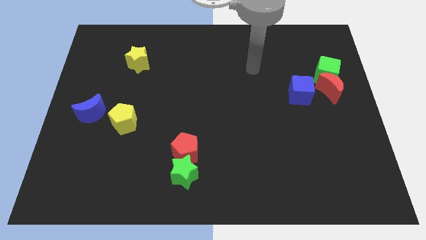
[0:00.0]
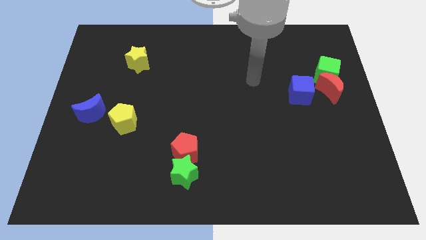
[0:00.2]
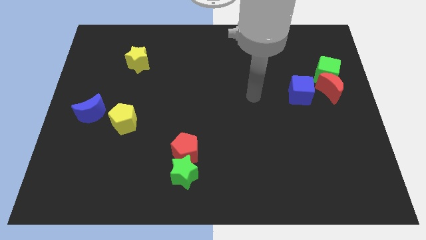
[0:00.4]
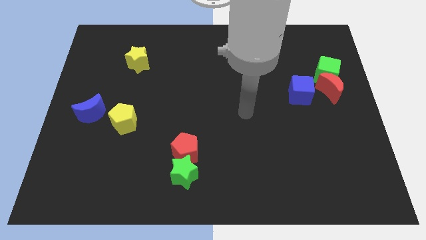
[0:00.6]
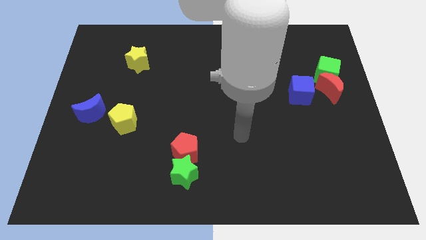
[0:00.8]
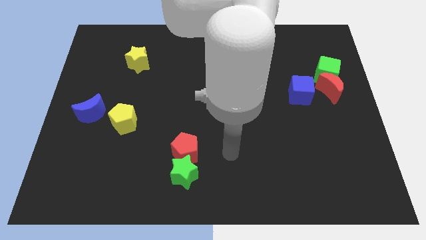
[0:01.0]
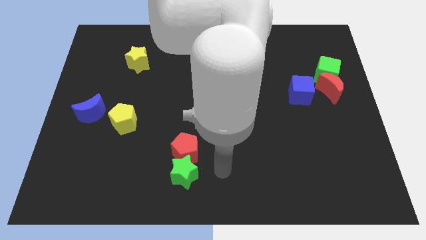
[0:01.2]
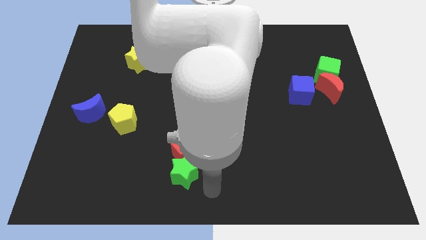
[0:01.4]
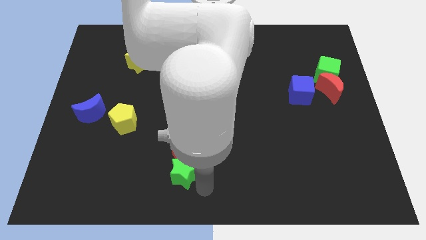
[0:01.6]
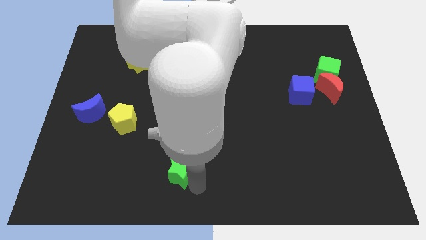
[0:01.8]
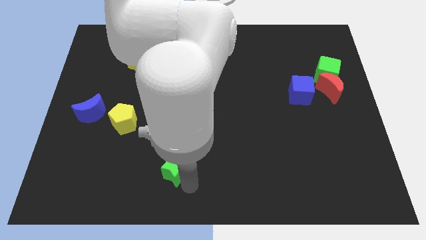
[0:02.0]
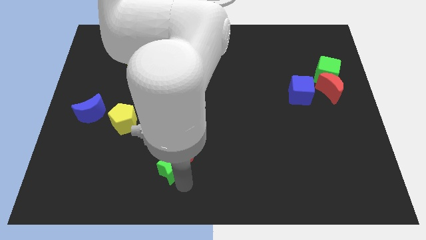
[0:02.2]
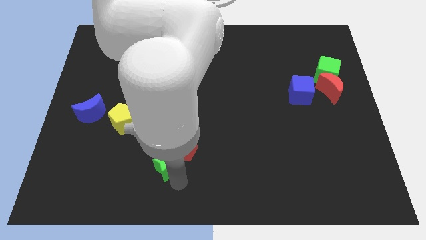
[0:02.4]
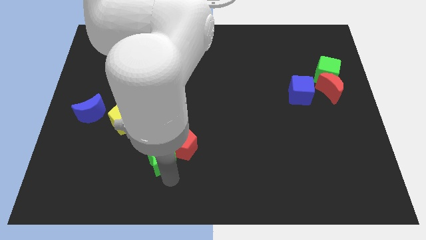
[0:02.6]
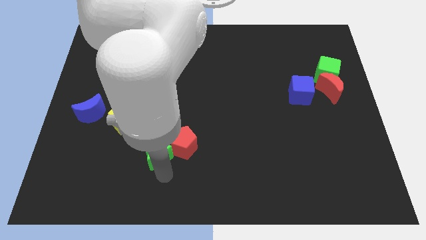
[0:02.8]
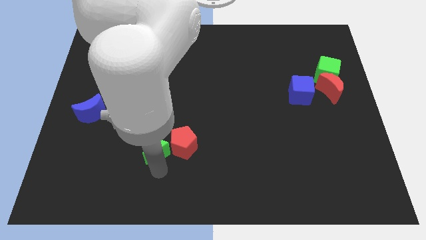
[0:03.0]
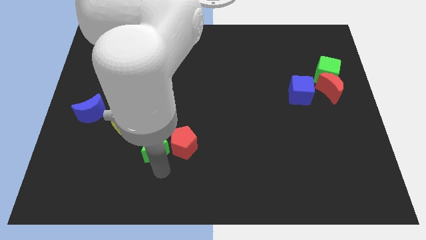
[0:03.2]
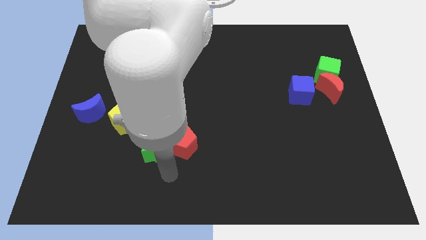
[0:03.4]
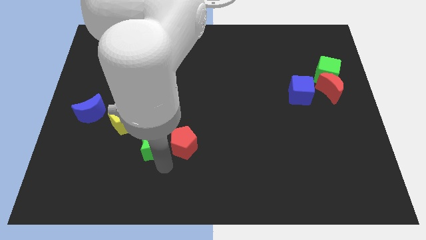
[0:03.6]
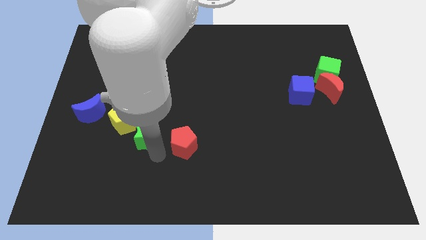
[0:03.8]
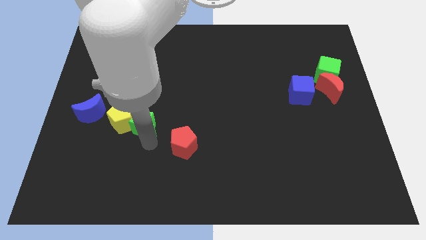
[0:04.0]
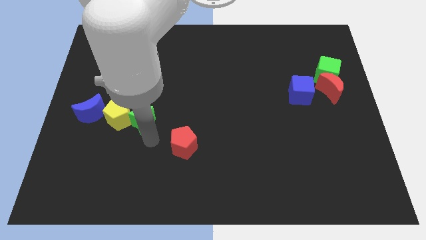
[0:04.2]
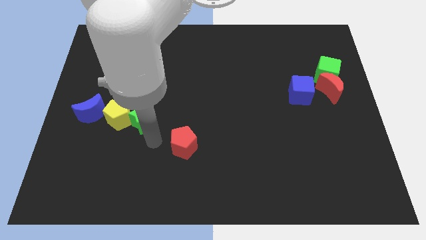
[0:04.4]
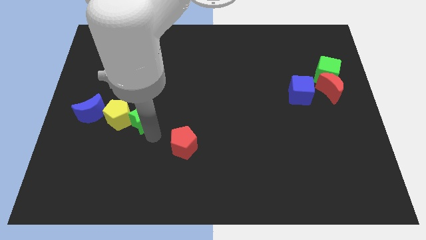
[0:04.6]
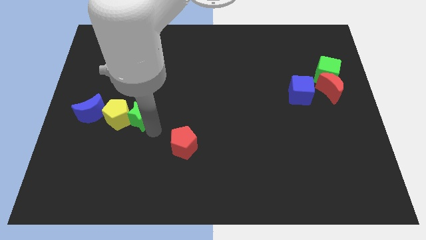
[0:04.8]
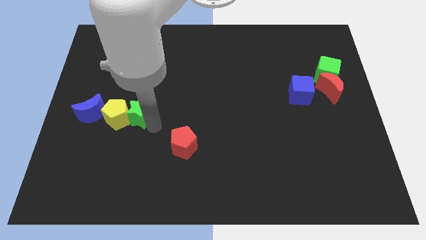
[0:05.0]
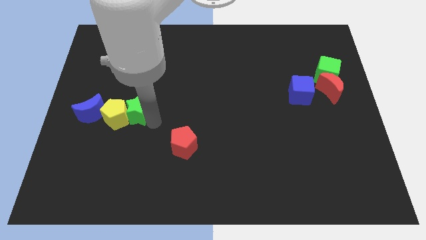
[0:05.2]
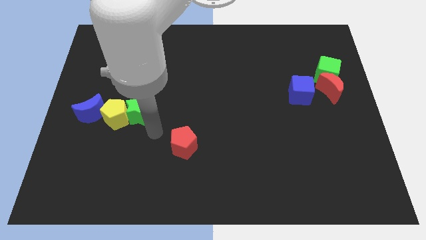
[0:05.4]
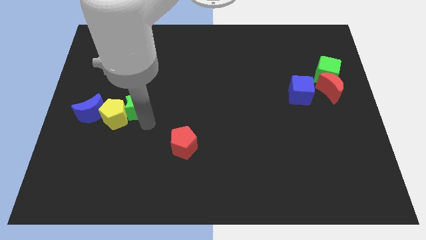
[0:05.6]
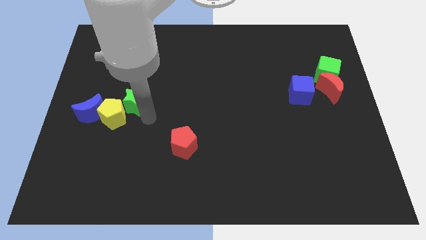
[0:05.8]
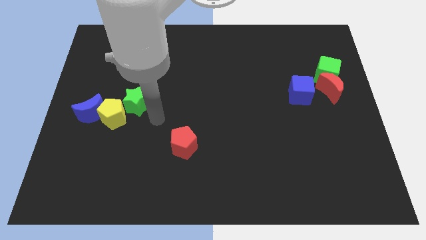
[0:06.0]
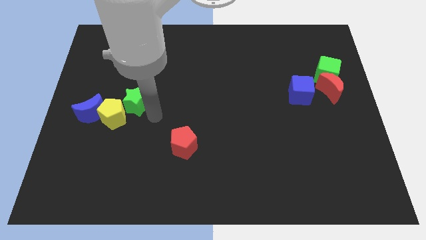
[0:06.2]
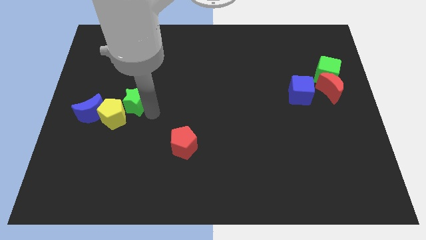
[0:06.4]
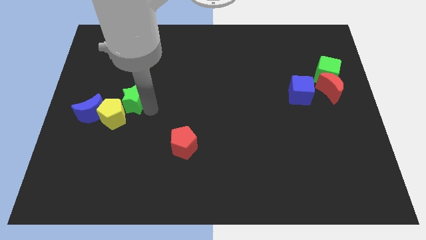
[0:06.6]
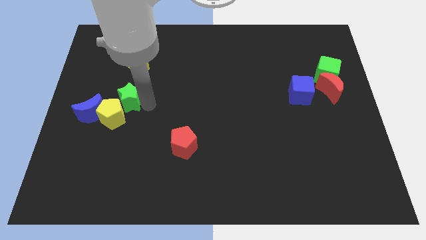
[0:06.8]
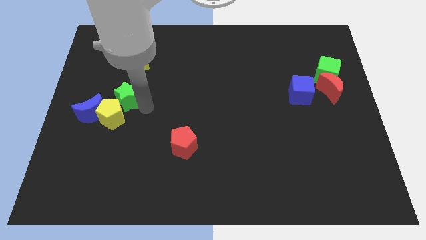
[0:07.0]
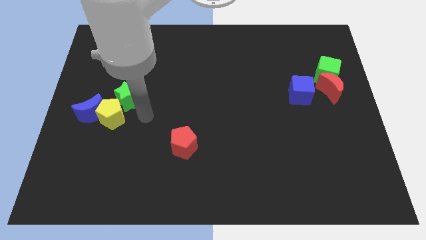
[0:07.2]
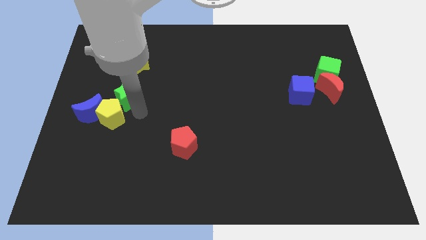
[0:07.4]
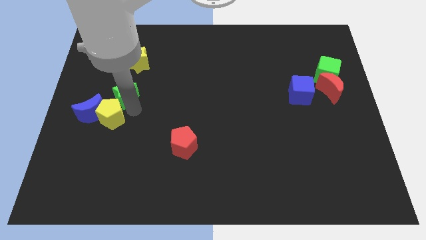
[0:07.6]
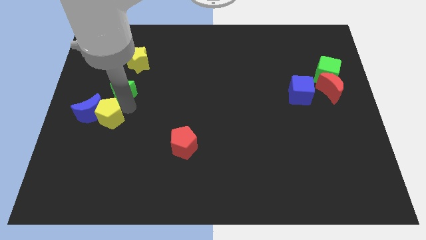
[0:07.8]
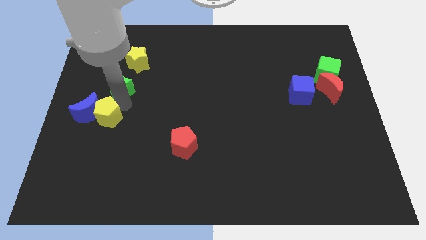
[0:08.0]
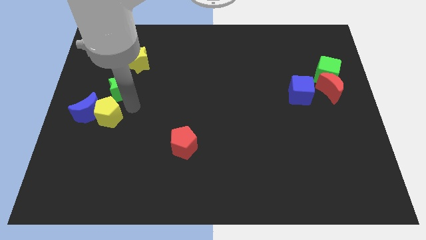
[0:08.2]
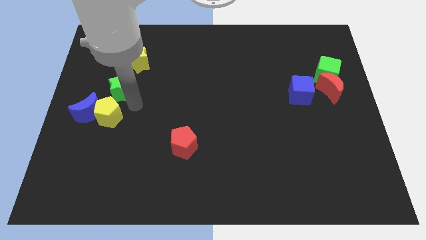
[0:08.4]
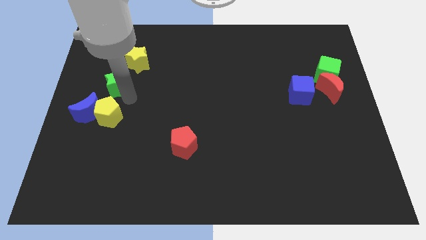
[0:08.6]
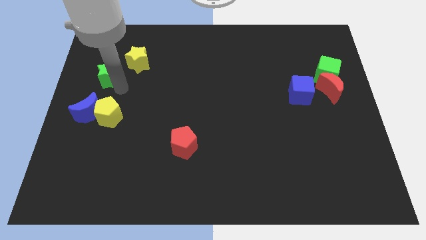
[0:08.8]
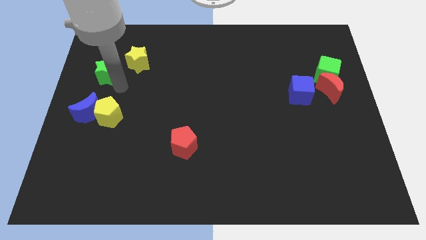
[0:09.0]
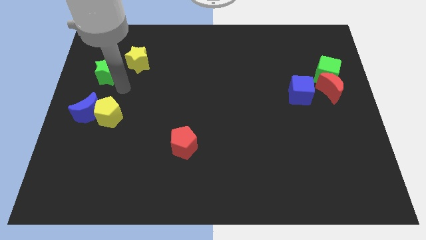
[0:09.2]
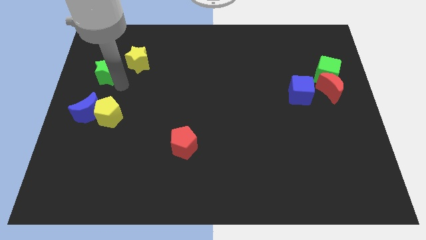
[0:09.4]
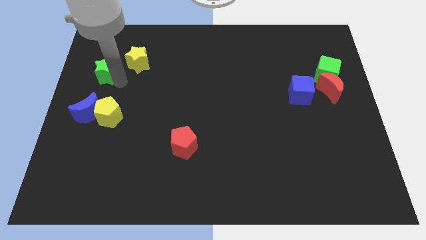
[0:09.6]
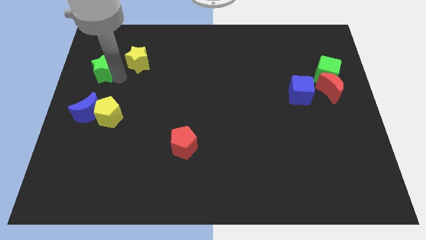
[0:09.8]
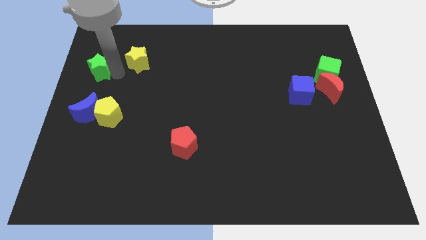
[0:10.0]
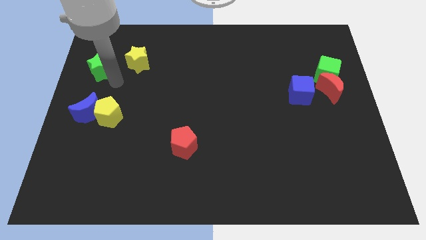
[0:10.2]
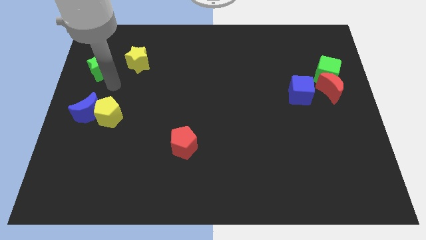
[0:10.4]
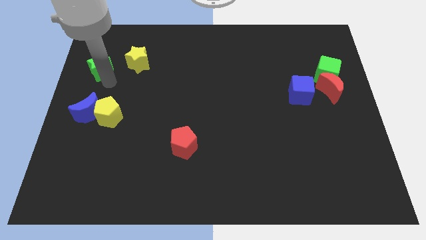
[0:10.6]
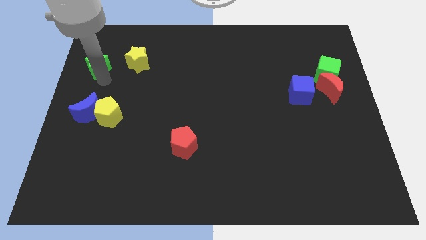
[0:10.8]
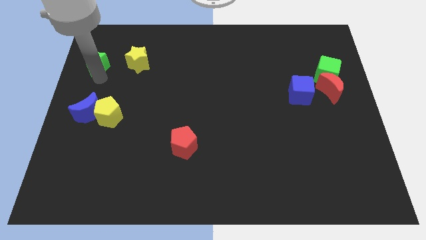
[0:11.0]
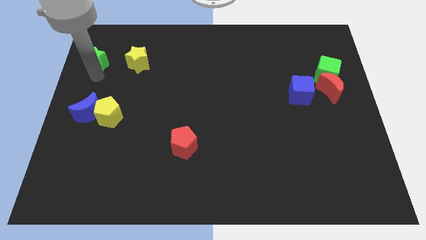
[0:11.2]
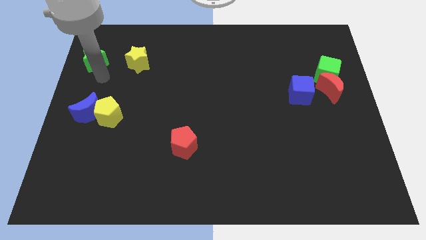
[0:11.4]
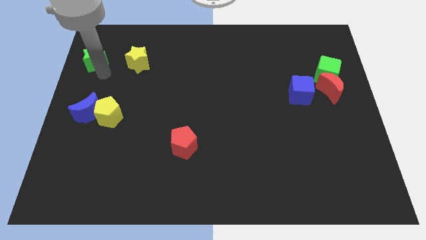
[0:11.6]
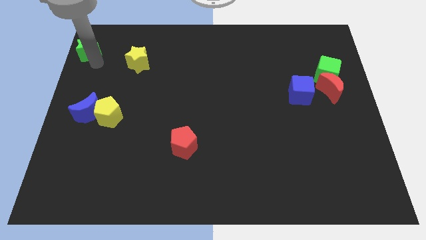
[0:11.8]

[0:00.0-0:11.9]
put the green star to the top left corner
